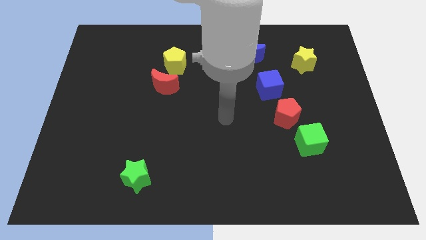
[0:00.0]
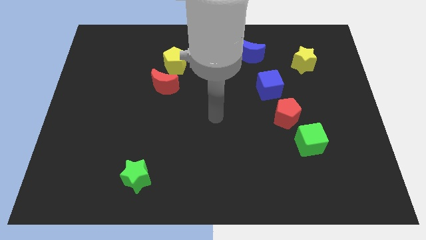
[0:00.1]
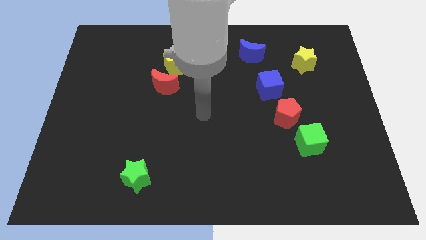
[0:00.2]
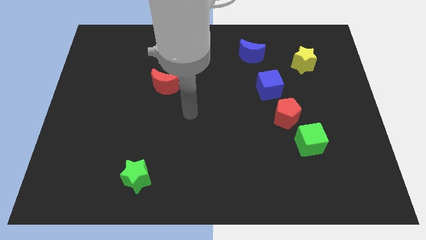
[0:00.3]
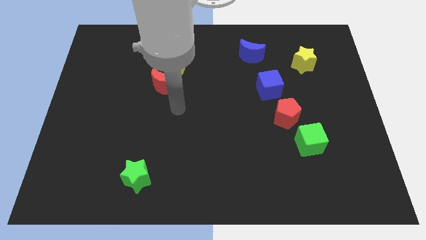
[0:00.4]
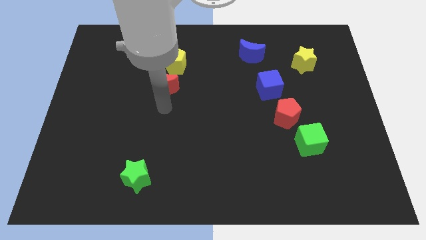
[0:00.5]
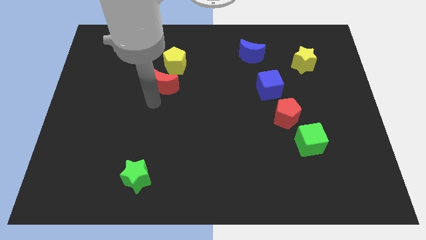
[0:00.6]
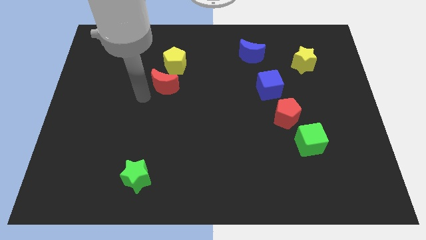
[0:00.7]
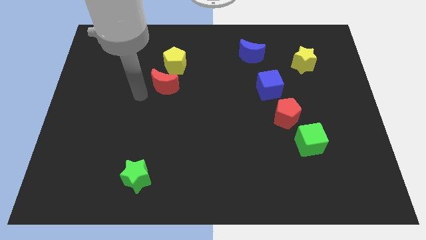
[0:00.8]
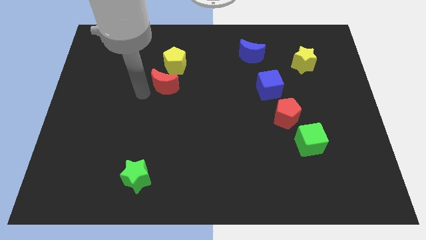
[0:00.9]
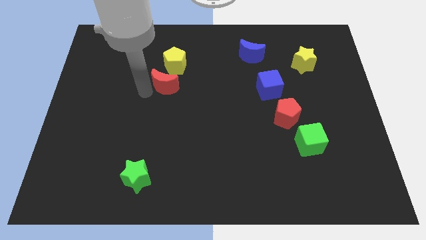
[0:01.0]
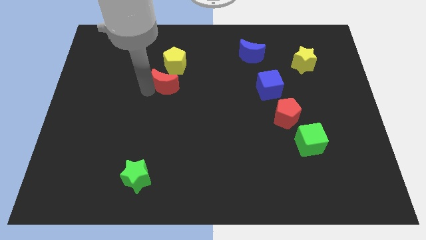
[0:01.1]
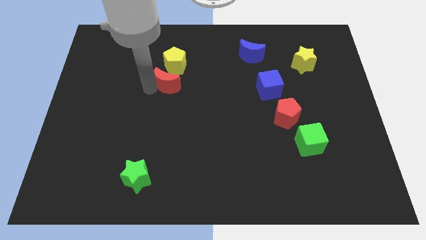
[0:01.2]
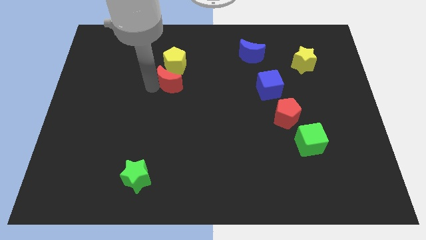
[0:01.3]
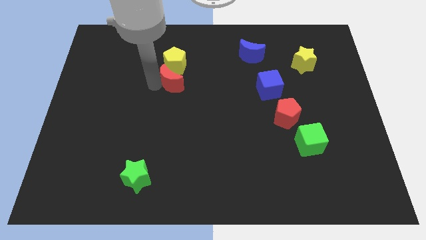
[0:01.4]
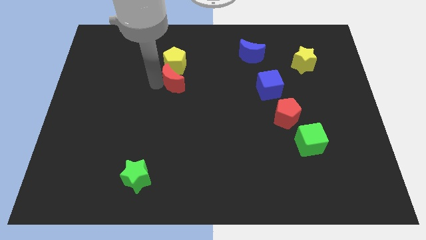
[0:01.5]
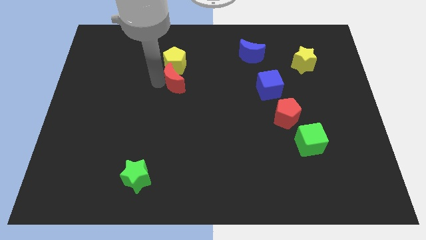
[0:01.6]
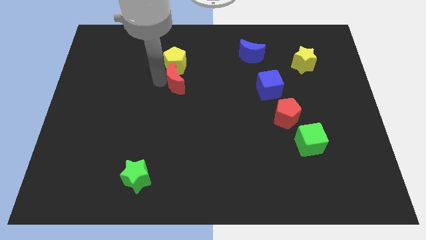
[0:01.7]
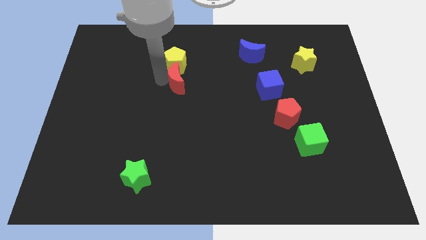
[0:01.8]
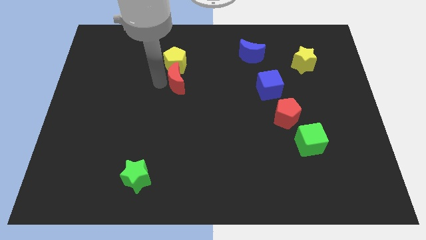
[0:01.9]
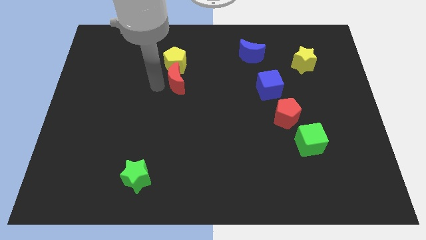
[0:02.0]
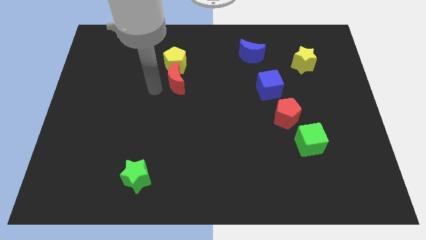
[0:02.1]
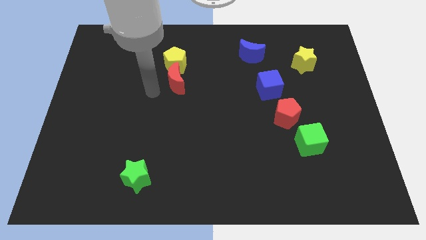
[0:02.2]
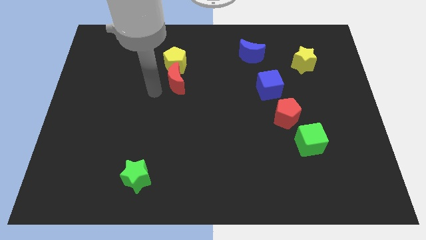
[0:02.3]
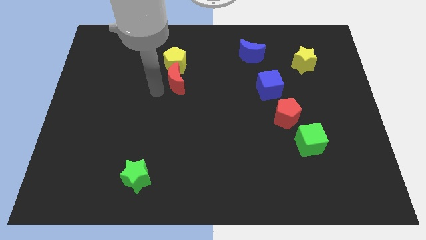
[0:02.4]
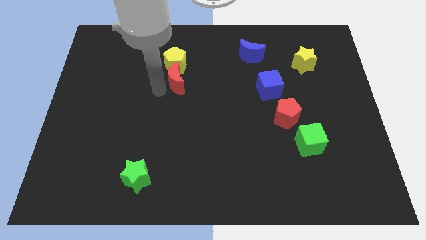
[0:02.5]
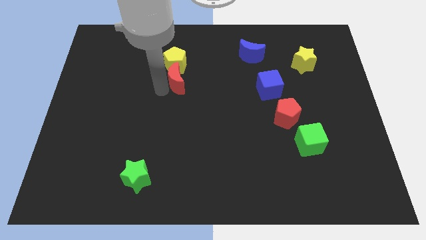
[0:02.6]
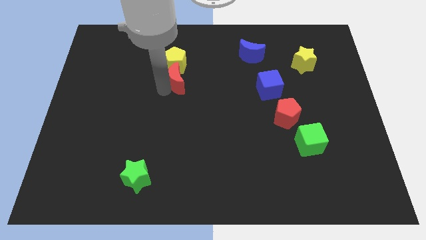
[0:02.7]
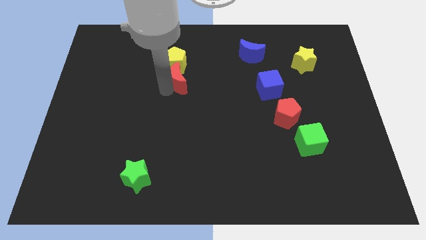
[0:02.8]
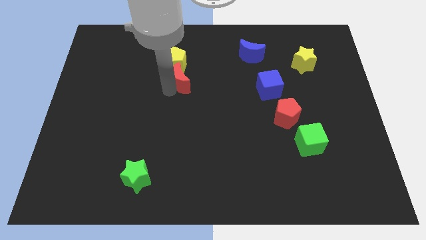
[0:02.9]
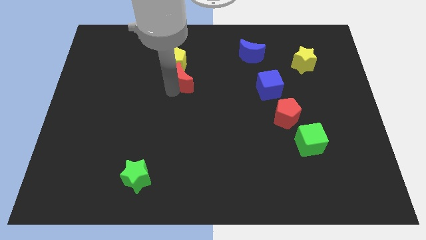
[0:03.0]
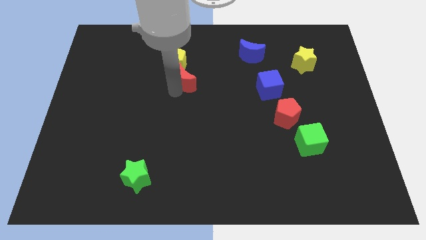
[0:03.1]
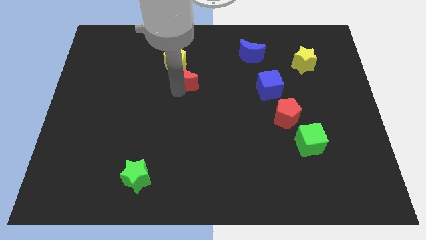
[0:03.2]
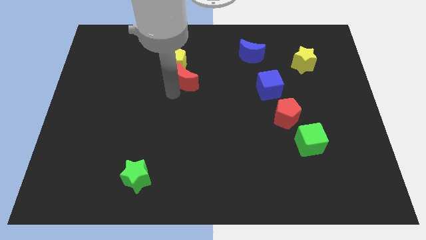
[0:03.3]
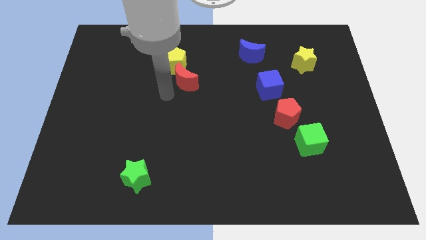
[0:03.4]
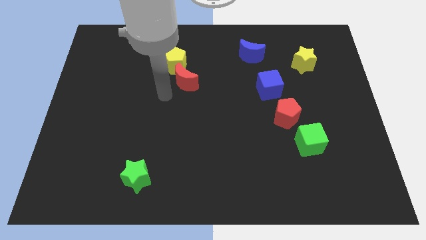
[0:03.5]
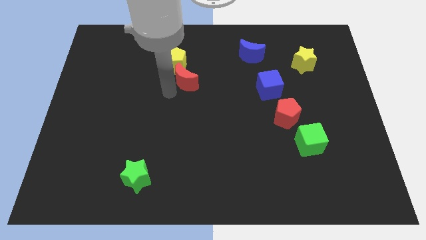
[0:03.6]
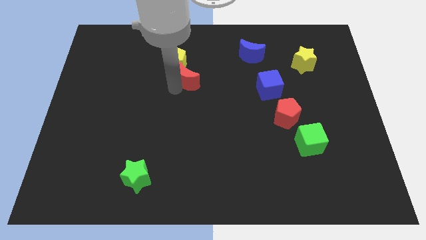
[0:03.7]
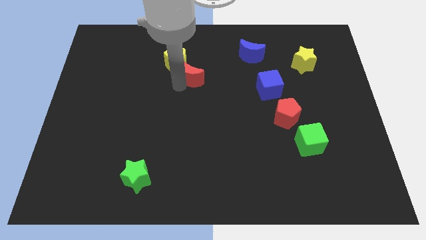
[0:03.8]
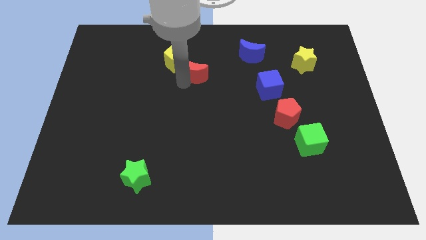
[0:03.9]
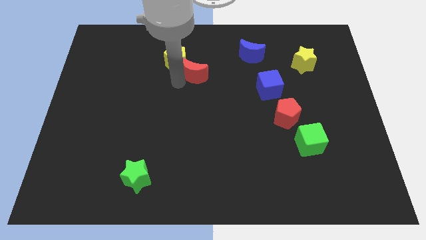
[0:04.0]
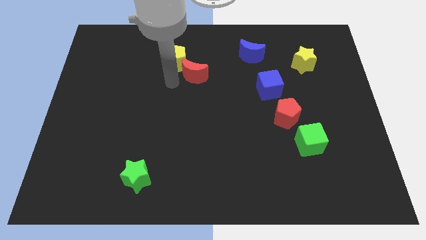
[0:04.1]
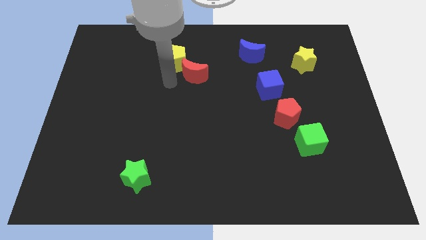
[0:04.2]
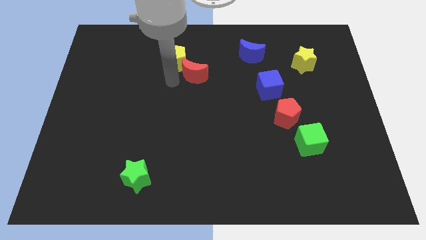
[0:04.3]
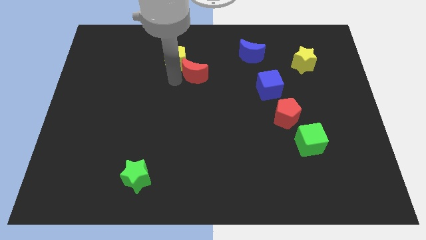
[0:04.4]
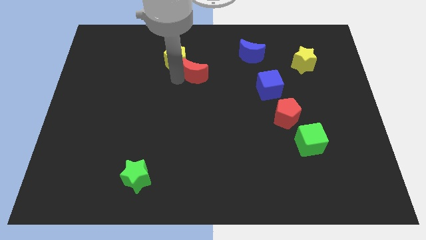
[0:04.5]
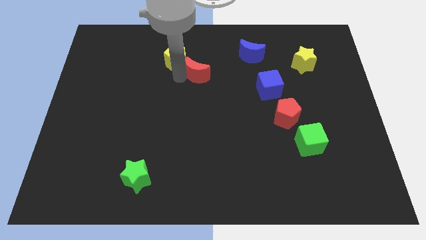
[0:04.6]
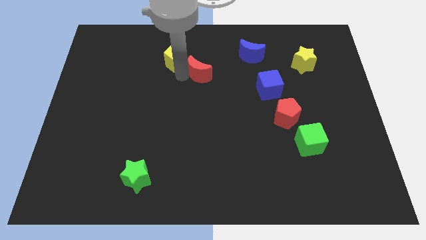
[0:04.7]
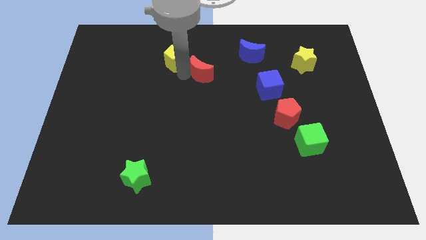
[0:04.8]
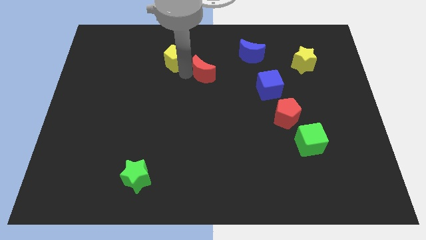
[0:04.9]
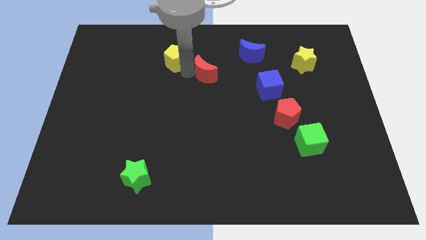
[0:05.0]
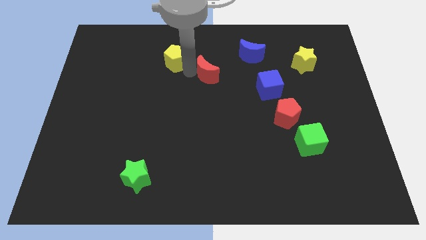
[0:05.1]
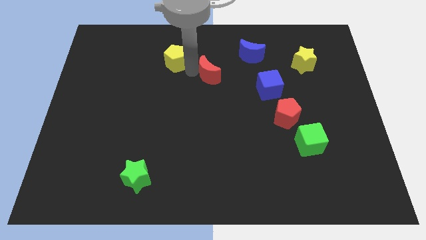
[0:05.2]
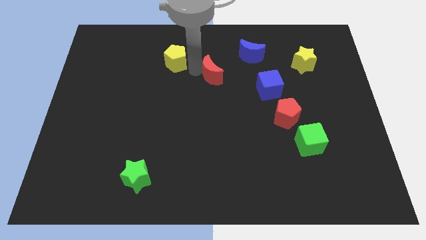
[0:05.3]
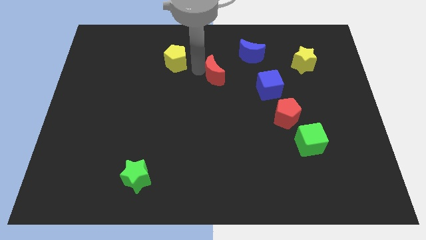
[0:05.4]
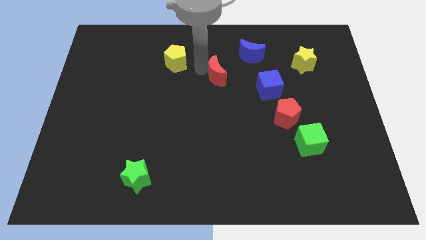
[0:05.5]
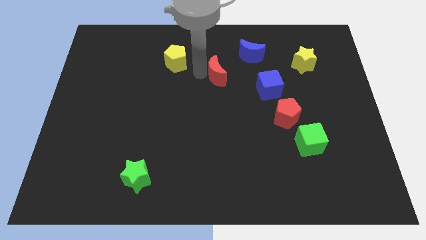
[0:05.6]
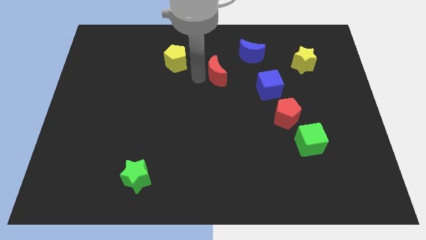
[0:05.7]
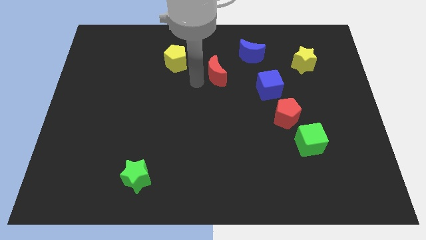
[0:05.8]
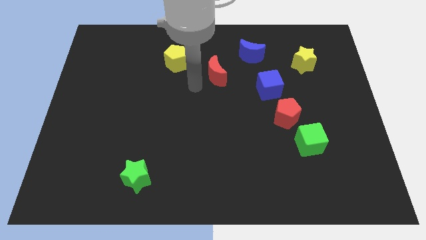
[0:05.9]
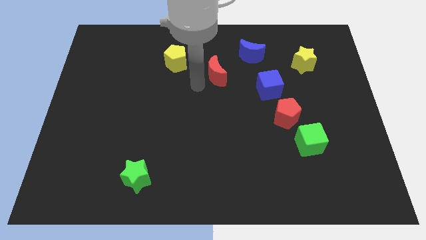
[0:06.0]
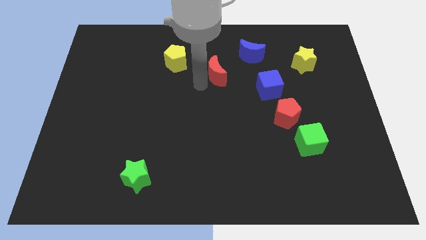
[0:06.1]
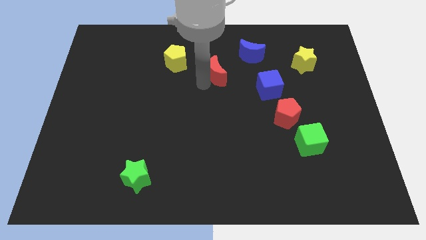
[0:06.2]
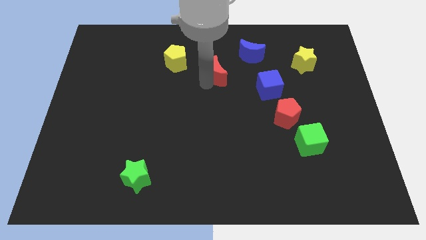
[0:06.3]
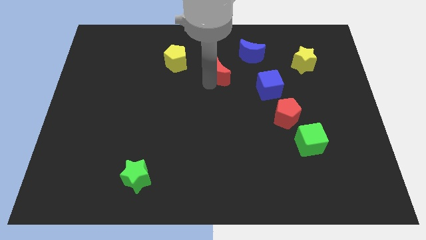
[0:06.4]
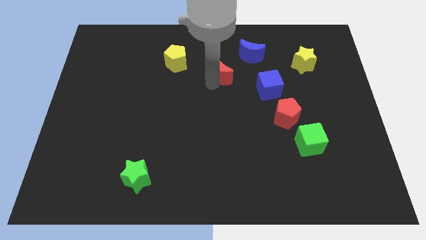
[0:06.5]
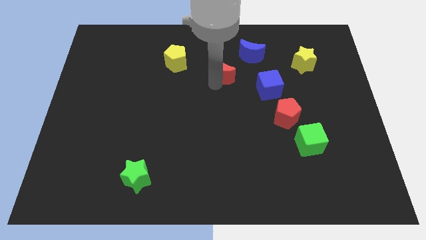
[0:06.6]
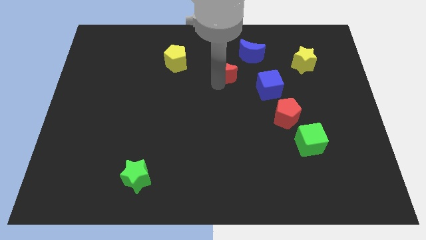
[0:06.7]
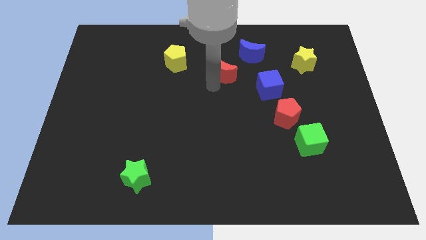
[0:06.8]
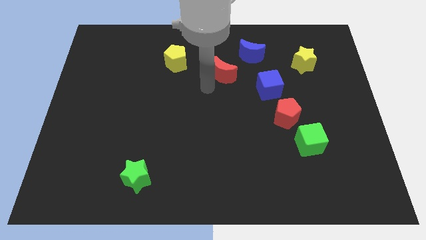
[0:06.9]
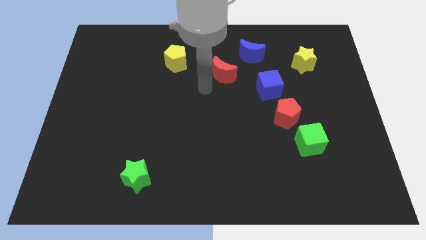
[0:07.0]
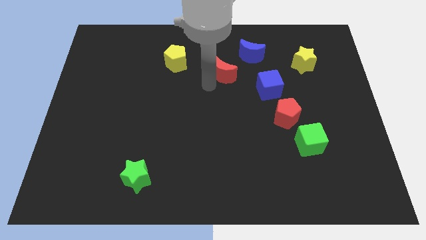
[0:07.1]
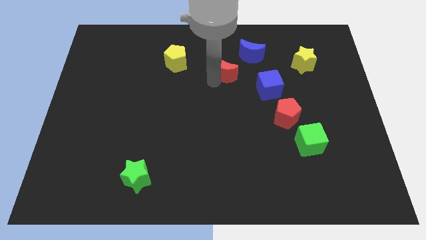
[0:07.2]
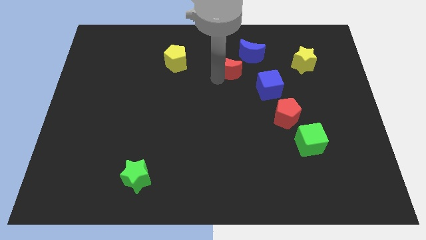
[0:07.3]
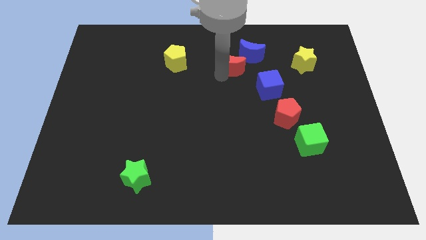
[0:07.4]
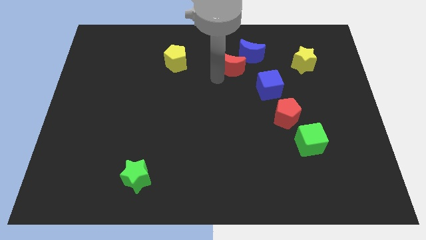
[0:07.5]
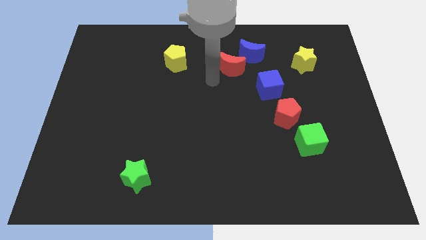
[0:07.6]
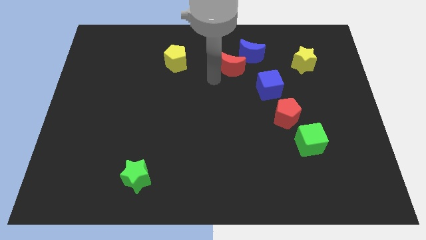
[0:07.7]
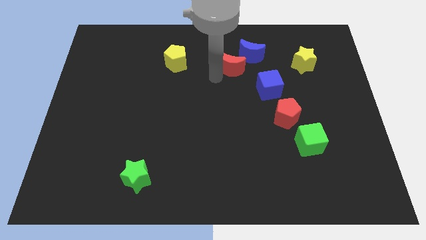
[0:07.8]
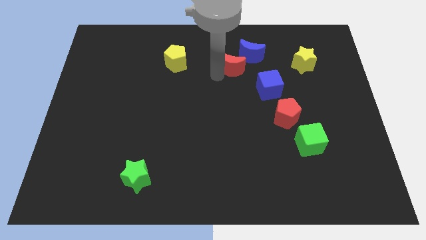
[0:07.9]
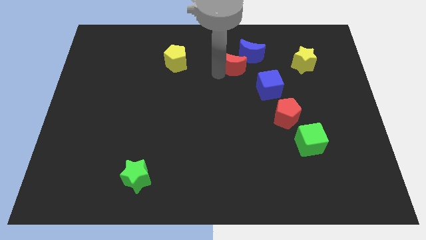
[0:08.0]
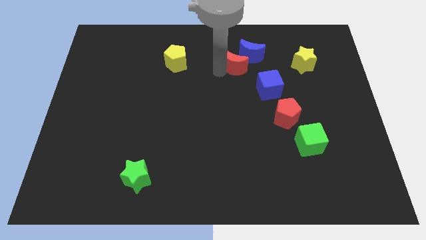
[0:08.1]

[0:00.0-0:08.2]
push the red moon close to the blue moon
